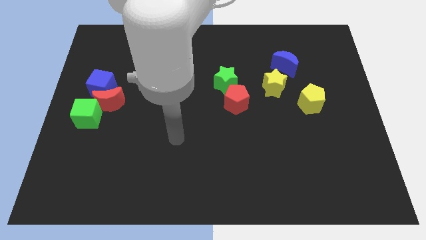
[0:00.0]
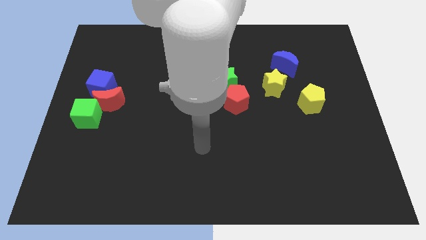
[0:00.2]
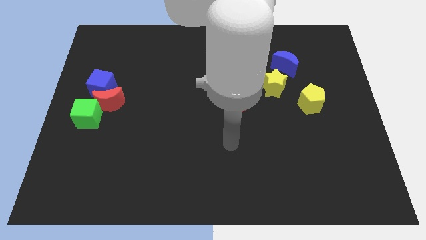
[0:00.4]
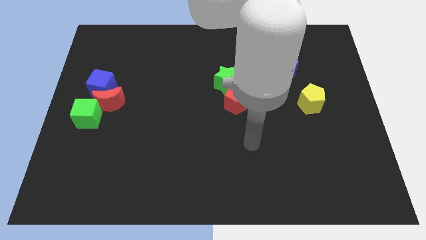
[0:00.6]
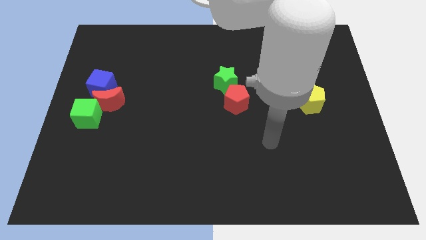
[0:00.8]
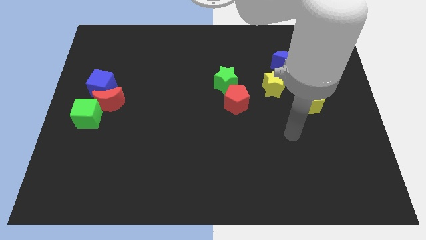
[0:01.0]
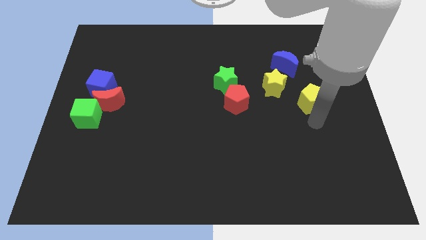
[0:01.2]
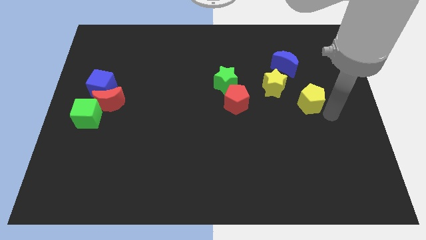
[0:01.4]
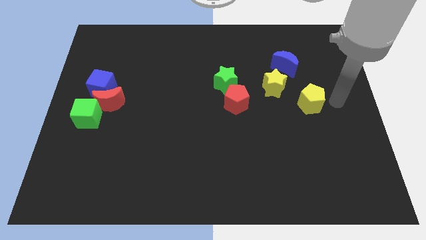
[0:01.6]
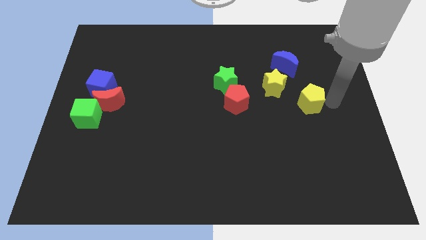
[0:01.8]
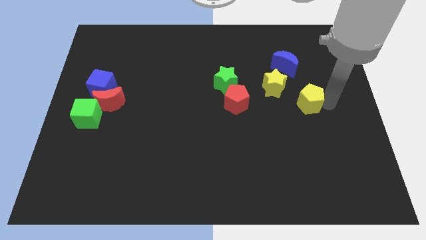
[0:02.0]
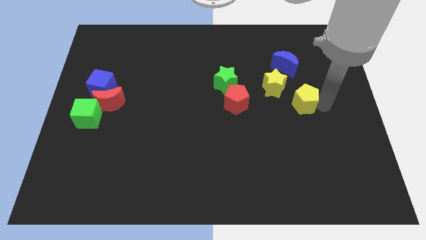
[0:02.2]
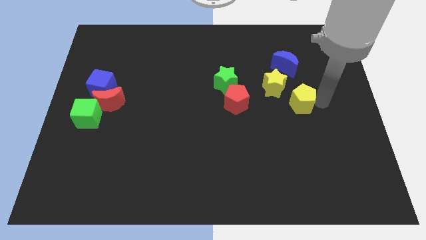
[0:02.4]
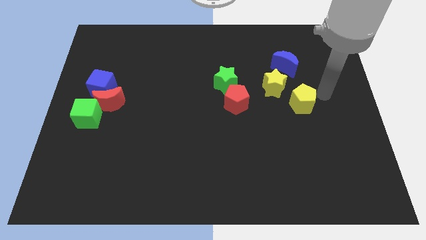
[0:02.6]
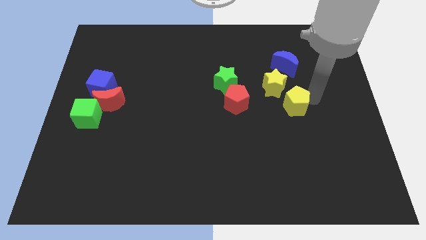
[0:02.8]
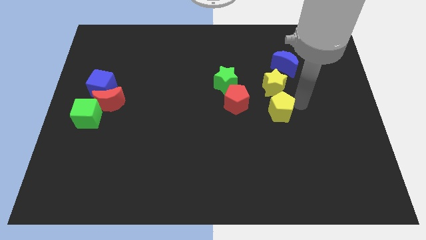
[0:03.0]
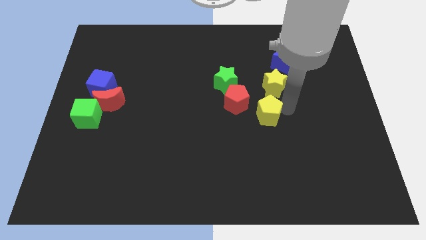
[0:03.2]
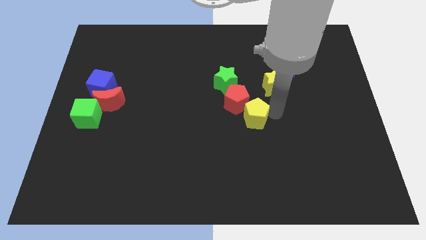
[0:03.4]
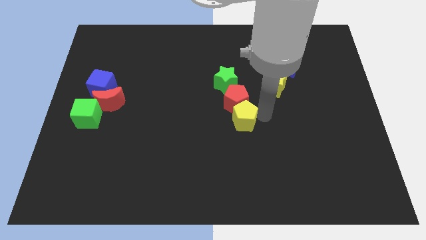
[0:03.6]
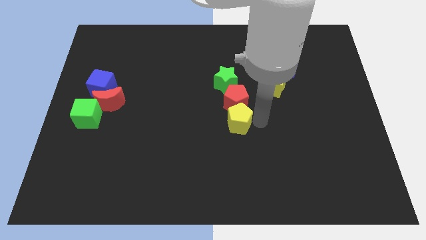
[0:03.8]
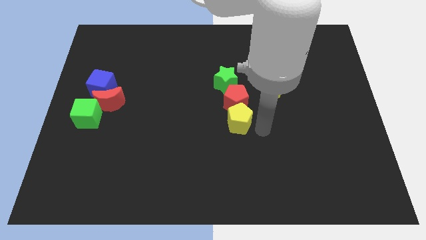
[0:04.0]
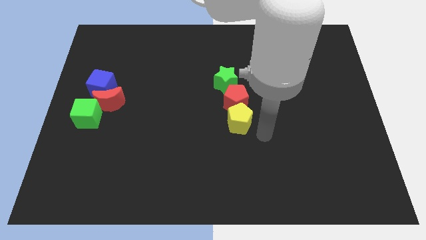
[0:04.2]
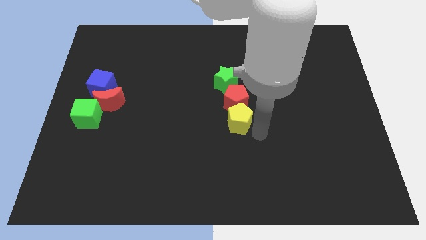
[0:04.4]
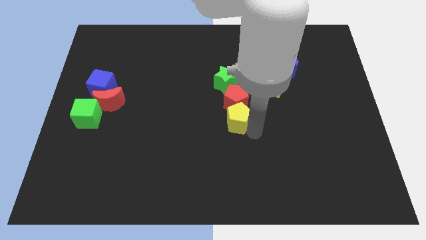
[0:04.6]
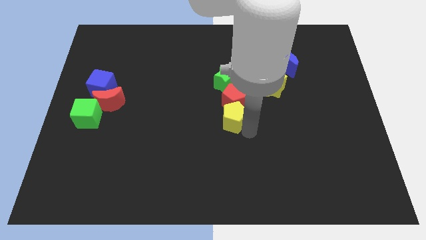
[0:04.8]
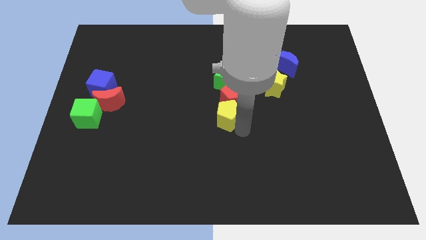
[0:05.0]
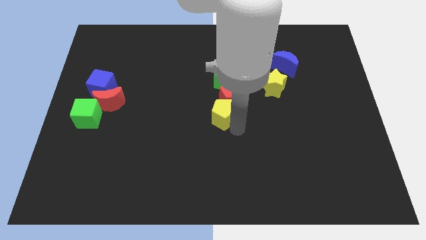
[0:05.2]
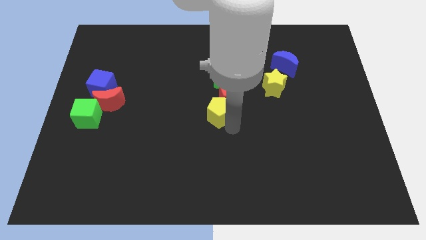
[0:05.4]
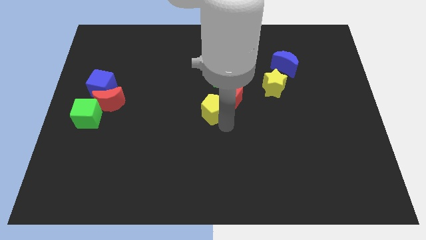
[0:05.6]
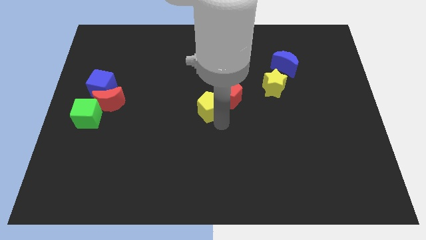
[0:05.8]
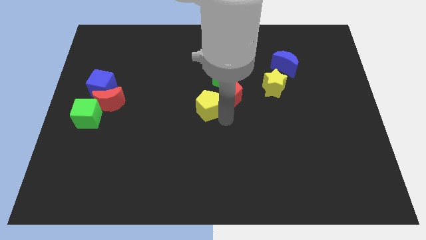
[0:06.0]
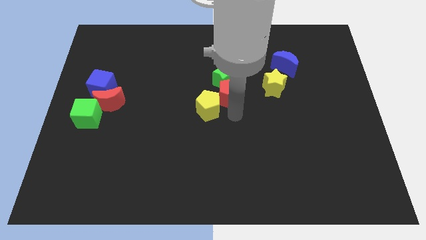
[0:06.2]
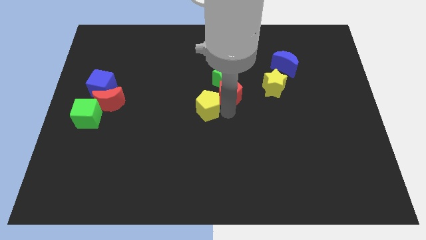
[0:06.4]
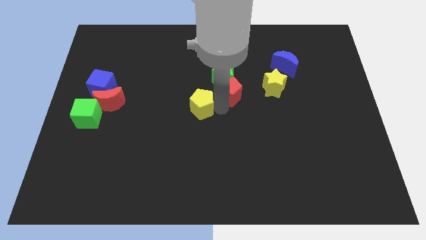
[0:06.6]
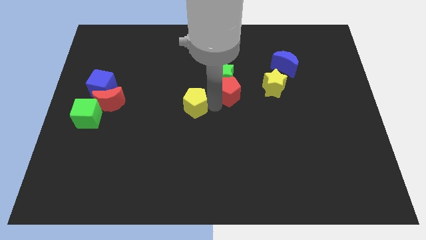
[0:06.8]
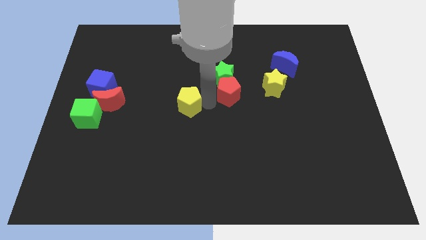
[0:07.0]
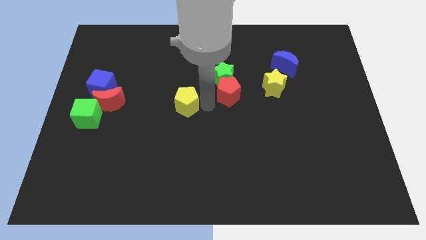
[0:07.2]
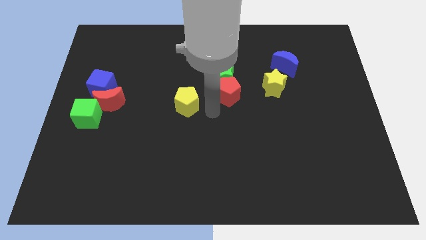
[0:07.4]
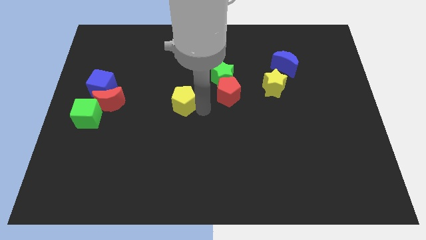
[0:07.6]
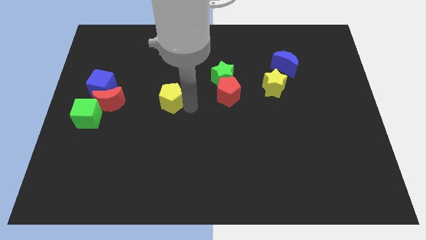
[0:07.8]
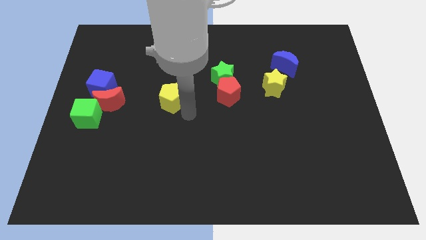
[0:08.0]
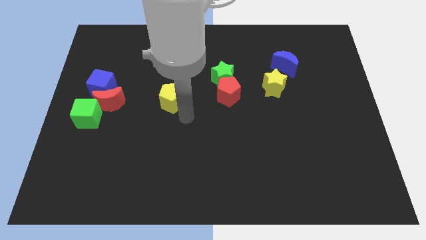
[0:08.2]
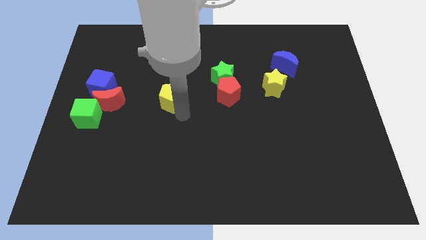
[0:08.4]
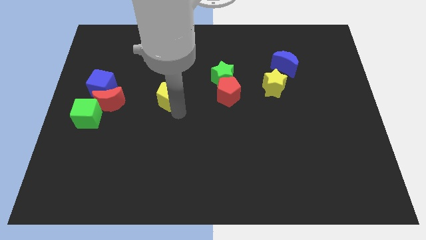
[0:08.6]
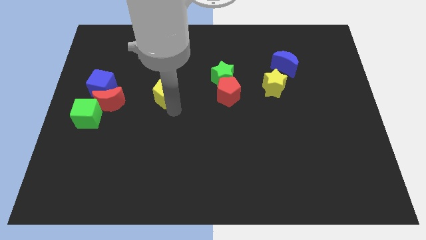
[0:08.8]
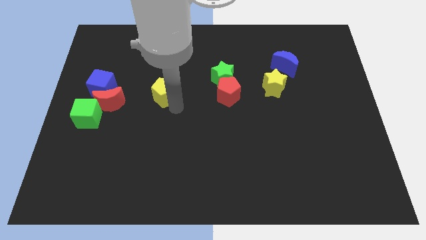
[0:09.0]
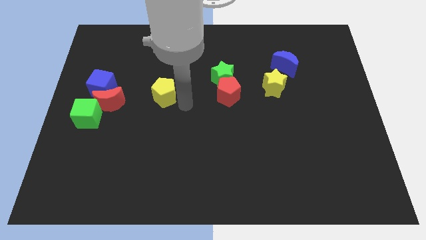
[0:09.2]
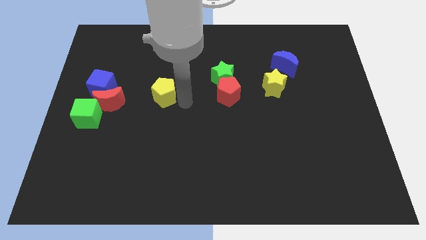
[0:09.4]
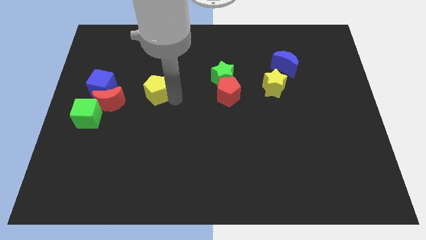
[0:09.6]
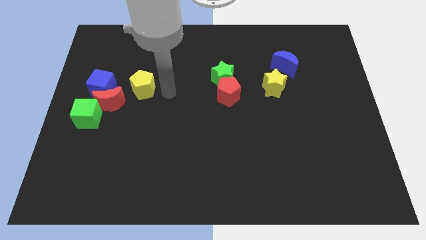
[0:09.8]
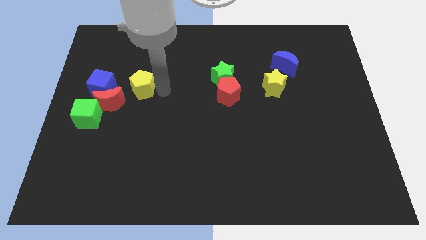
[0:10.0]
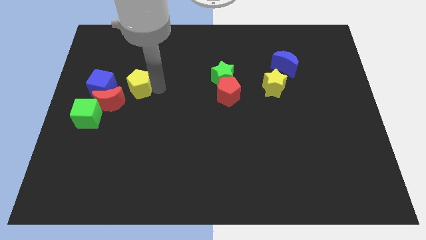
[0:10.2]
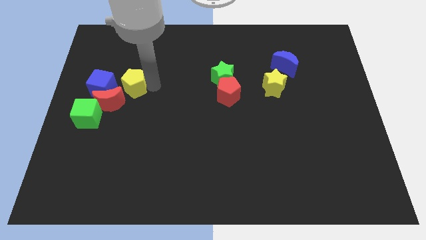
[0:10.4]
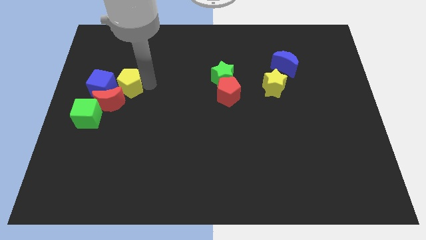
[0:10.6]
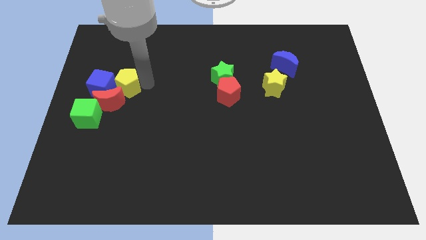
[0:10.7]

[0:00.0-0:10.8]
put the yellow pentagon close to the blue cube

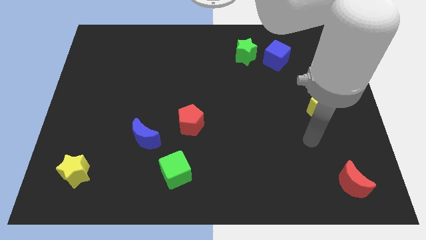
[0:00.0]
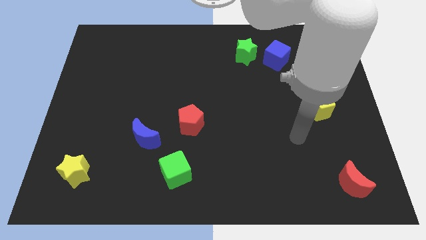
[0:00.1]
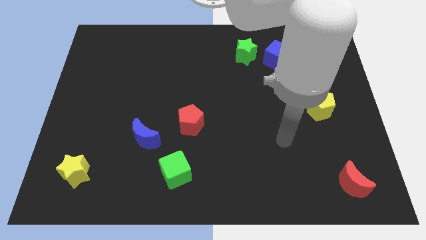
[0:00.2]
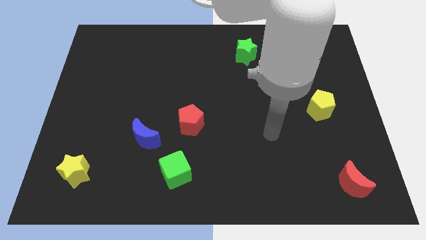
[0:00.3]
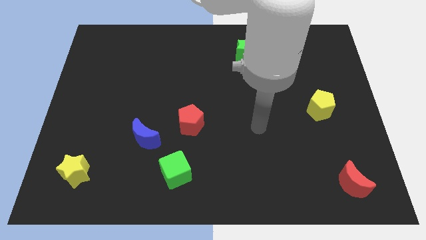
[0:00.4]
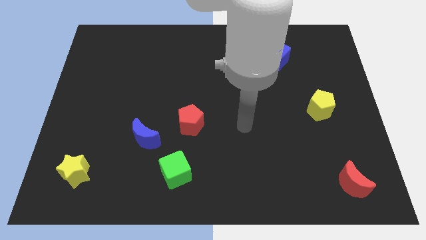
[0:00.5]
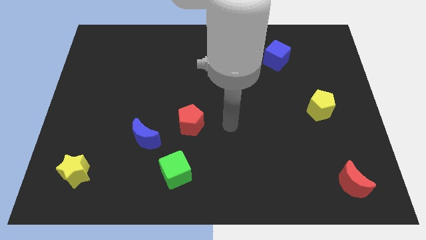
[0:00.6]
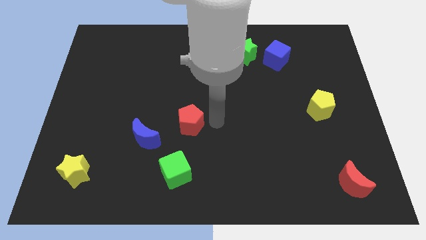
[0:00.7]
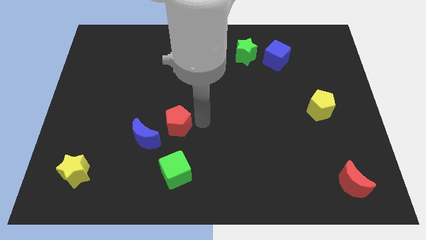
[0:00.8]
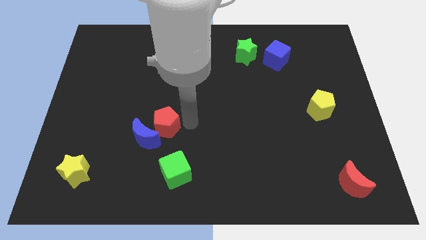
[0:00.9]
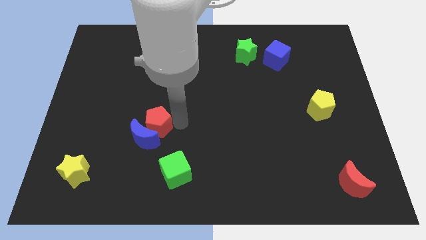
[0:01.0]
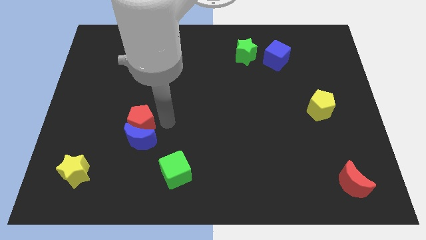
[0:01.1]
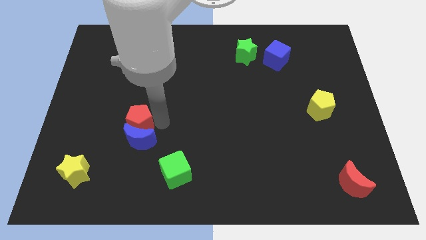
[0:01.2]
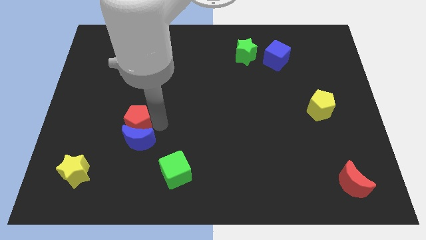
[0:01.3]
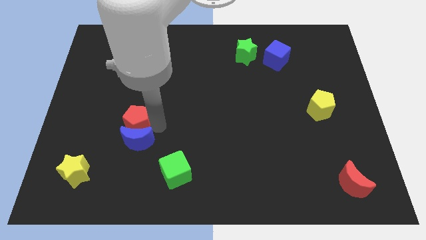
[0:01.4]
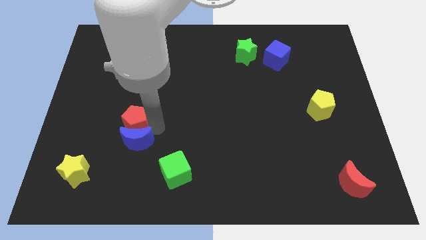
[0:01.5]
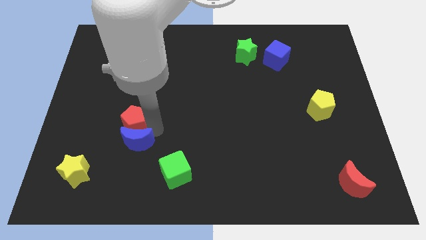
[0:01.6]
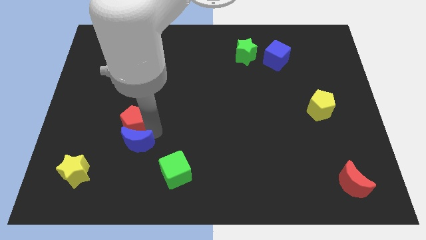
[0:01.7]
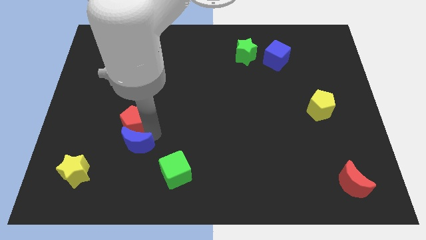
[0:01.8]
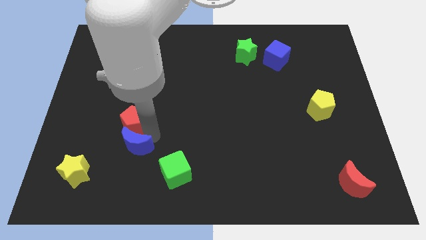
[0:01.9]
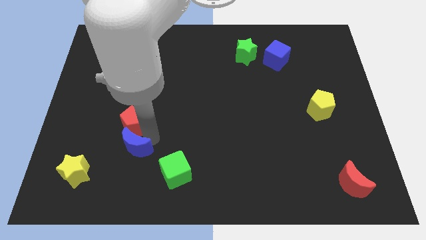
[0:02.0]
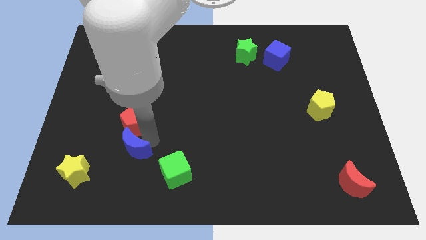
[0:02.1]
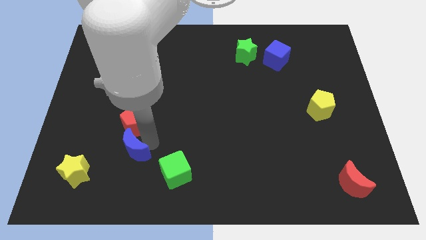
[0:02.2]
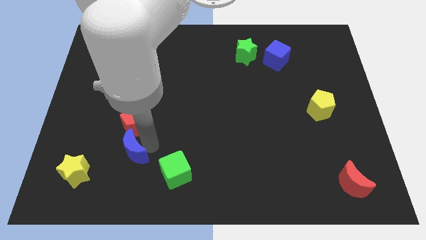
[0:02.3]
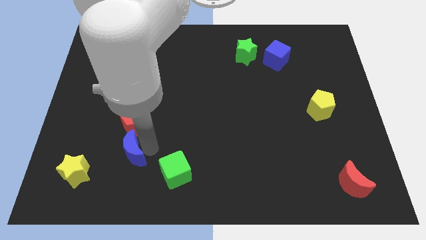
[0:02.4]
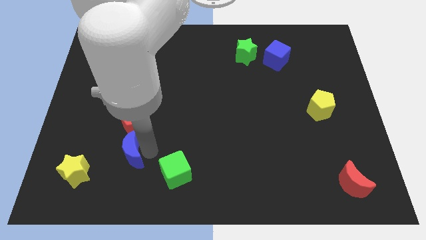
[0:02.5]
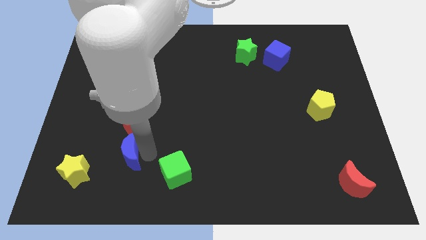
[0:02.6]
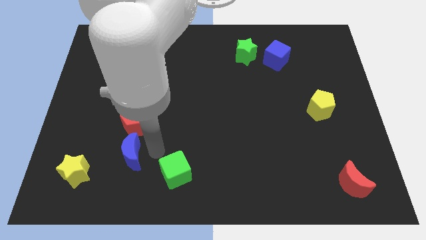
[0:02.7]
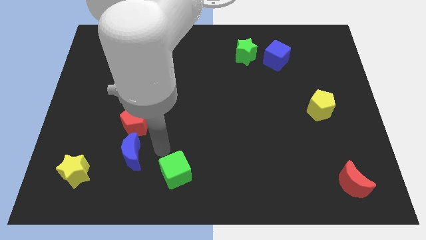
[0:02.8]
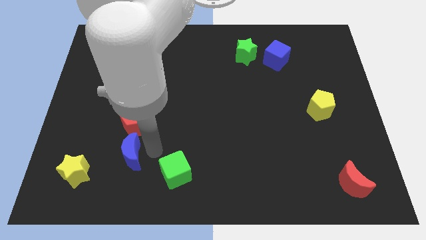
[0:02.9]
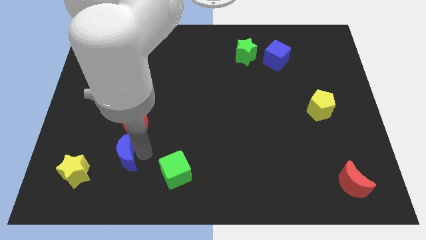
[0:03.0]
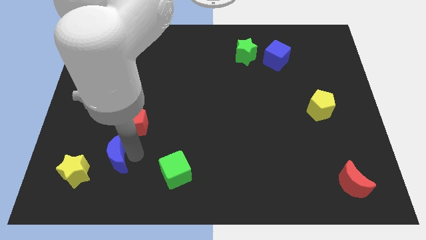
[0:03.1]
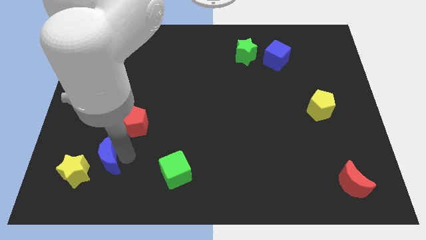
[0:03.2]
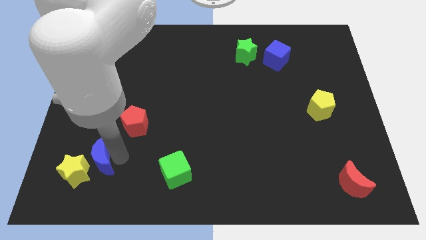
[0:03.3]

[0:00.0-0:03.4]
put the blue moon to the yellow star
